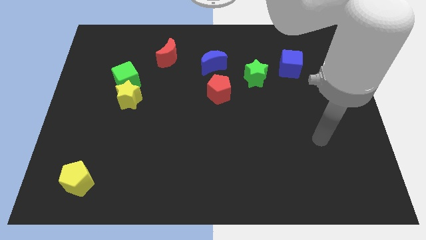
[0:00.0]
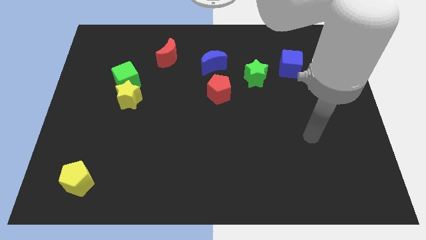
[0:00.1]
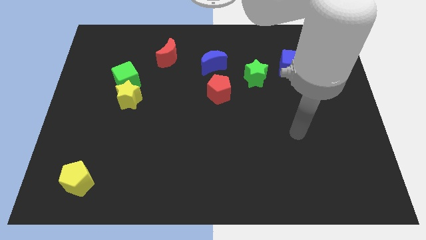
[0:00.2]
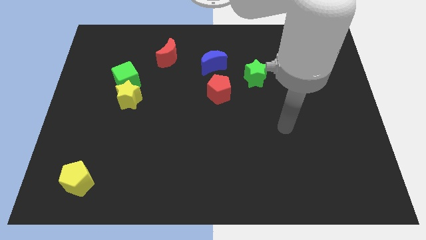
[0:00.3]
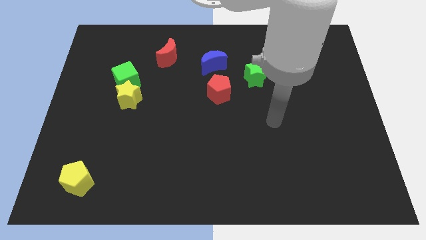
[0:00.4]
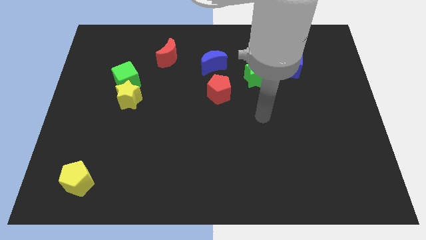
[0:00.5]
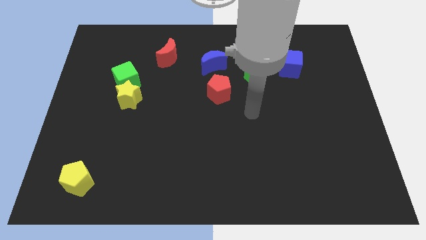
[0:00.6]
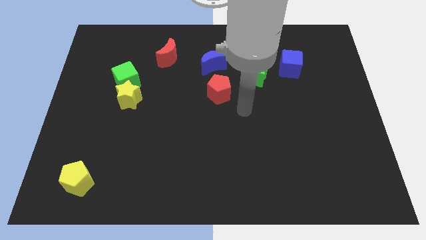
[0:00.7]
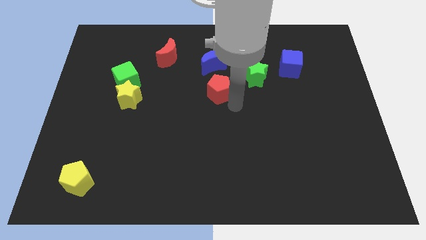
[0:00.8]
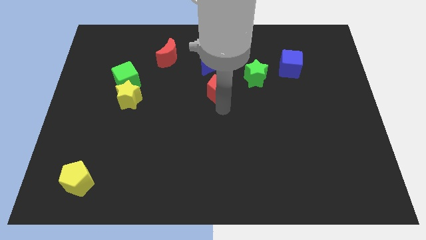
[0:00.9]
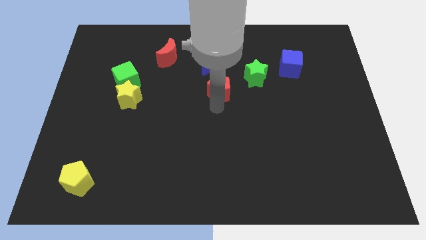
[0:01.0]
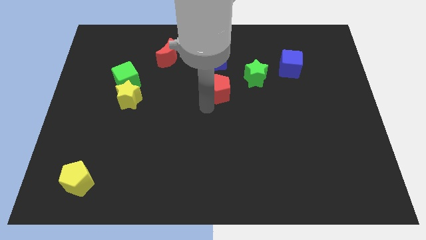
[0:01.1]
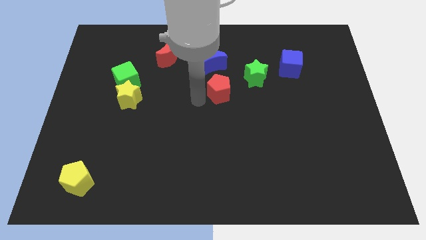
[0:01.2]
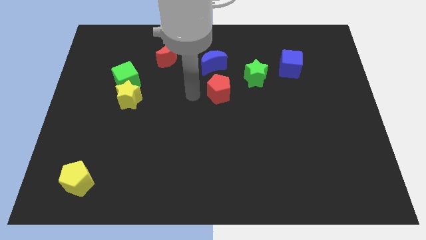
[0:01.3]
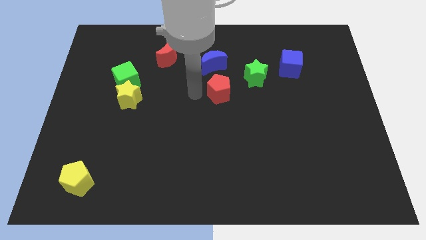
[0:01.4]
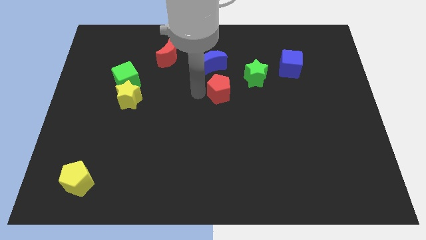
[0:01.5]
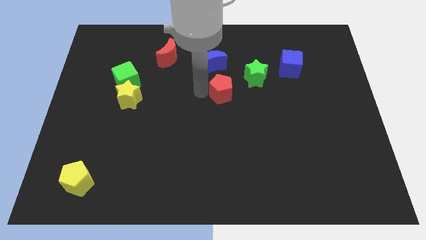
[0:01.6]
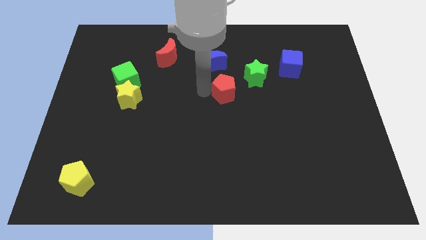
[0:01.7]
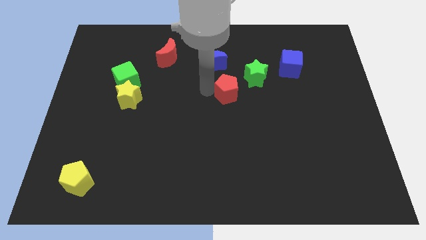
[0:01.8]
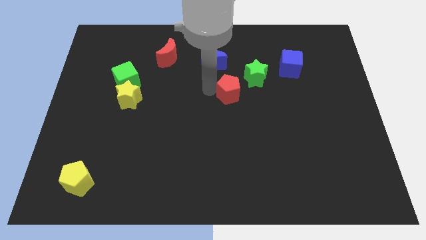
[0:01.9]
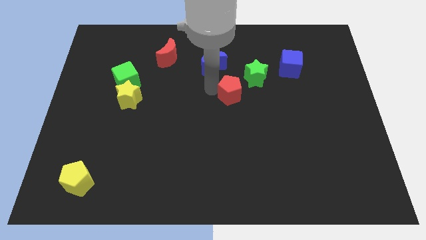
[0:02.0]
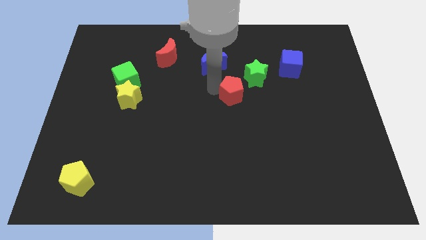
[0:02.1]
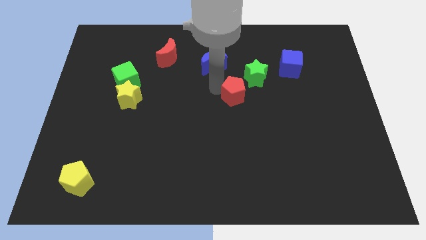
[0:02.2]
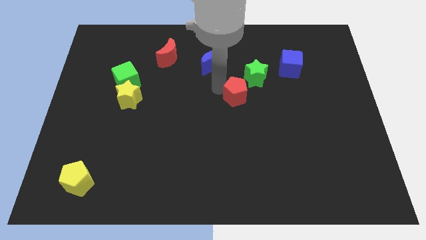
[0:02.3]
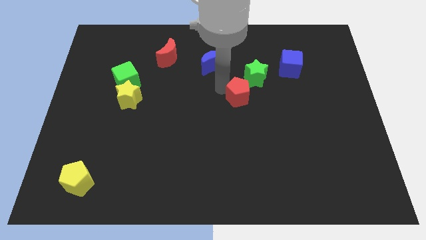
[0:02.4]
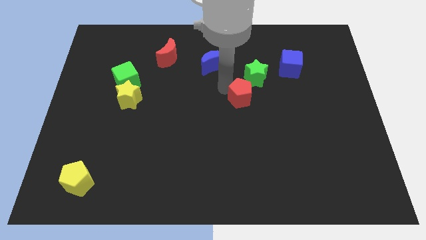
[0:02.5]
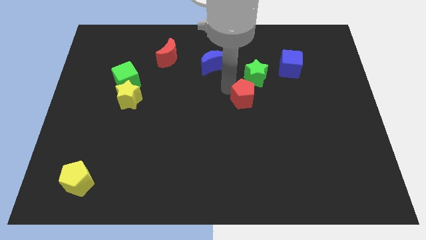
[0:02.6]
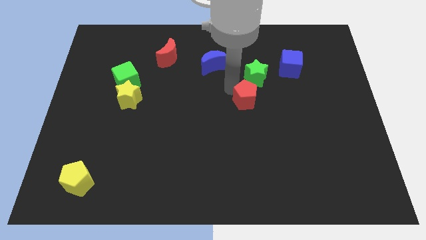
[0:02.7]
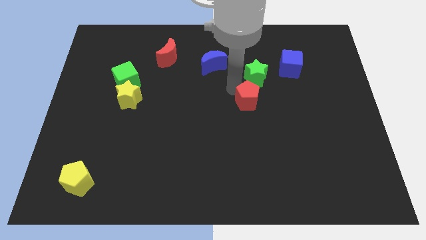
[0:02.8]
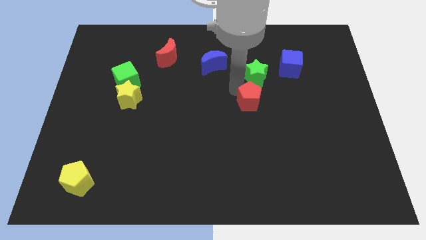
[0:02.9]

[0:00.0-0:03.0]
slightly slide the red pentagon to the right

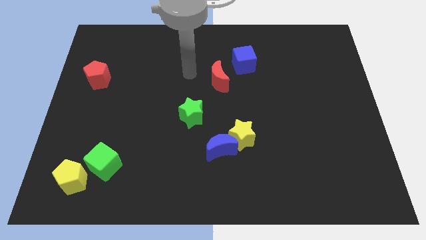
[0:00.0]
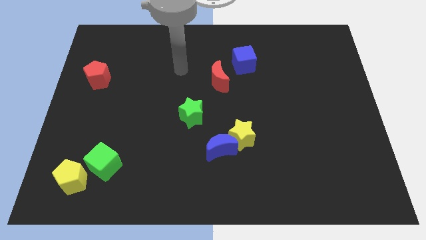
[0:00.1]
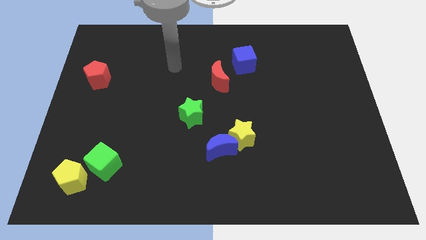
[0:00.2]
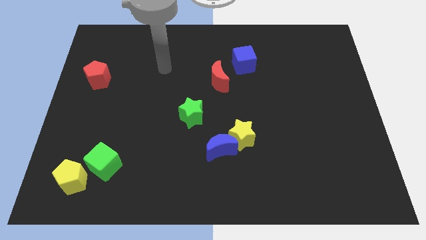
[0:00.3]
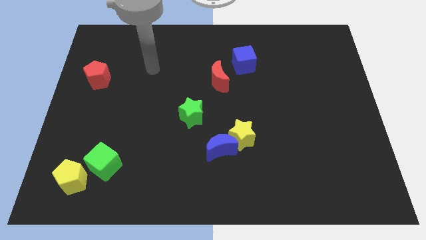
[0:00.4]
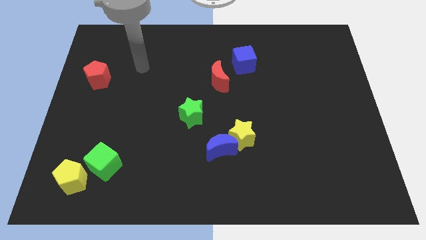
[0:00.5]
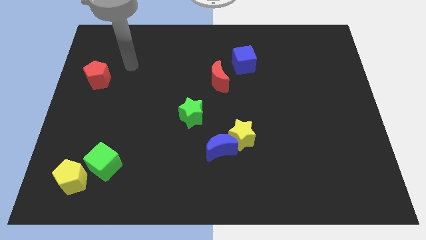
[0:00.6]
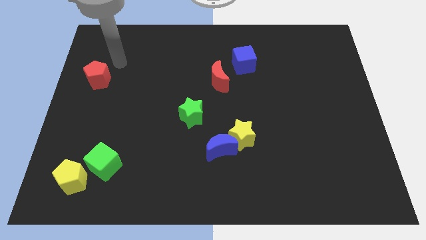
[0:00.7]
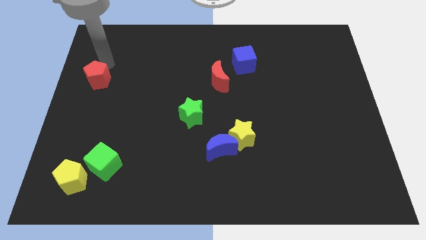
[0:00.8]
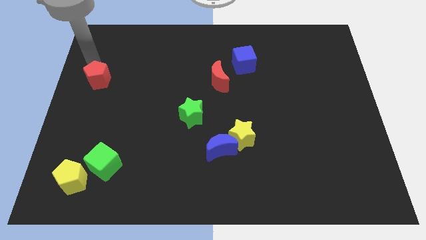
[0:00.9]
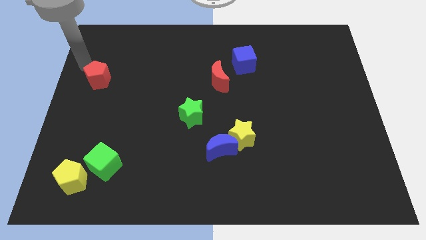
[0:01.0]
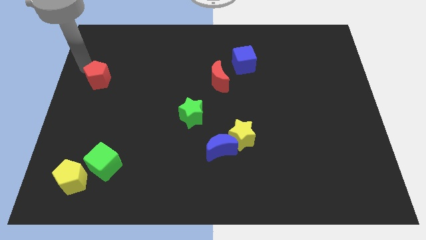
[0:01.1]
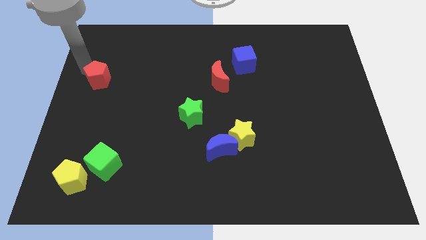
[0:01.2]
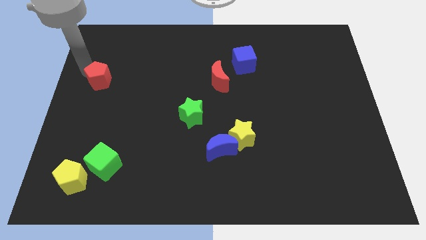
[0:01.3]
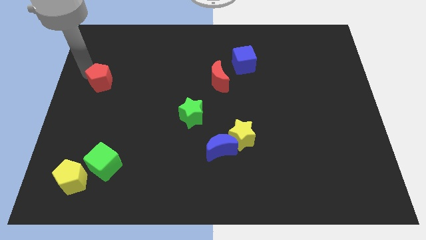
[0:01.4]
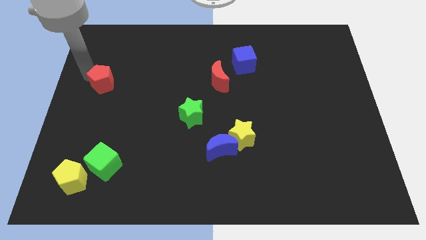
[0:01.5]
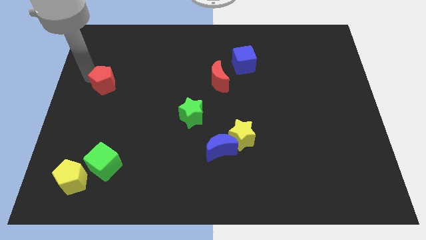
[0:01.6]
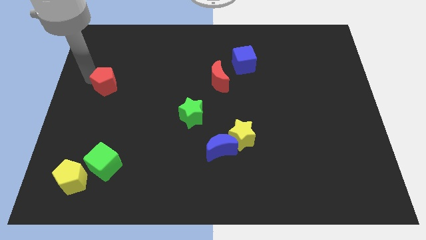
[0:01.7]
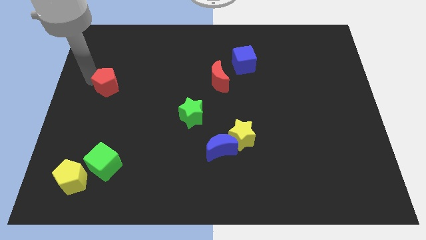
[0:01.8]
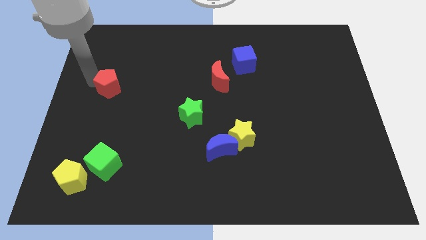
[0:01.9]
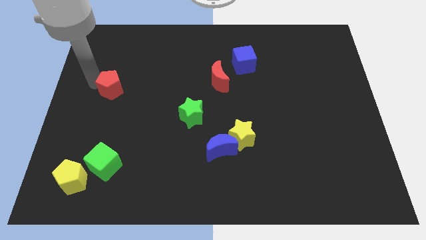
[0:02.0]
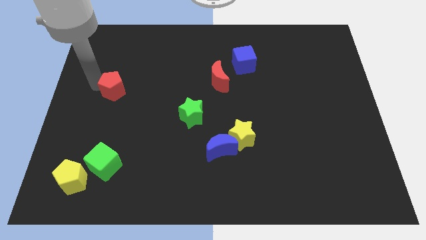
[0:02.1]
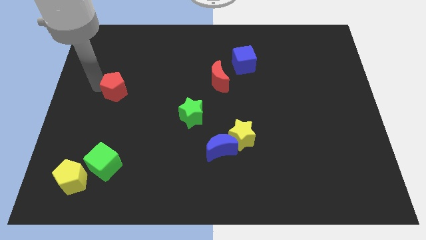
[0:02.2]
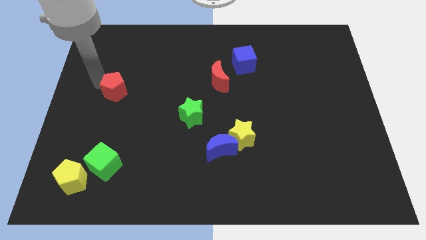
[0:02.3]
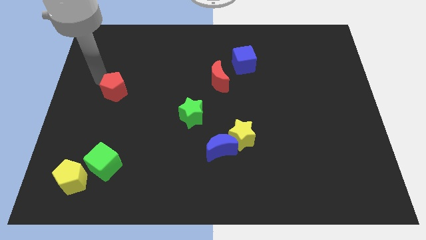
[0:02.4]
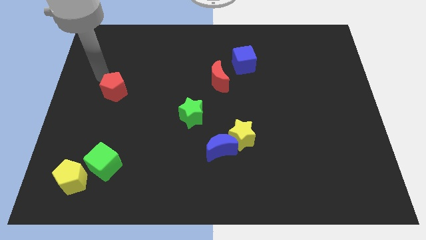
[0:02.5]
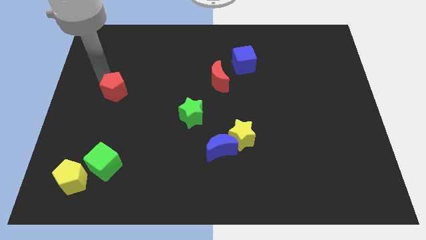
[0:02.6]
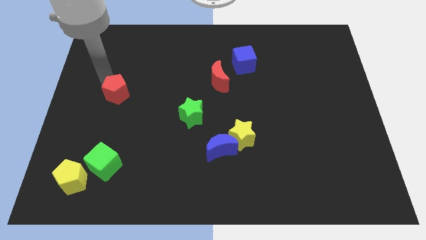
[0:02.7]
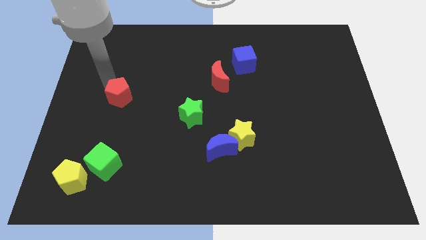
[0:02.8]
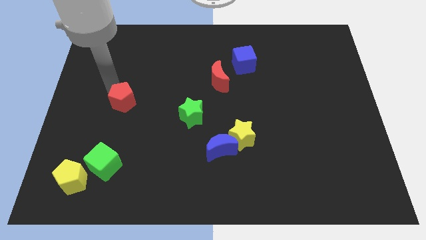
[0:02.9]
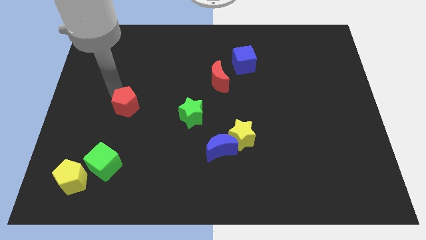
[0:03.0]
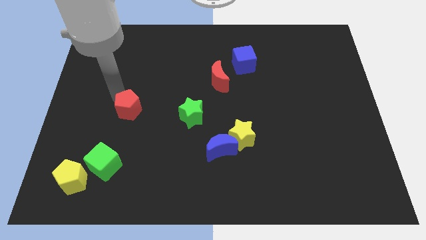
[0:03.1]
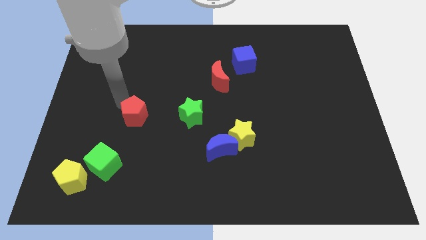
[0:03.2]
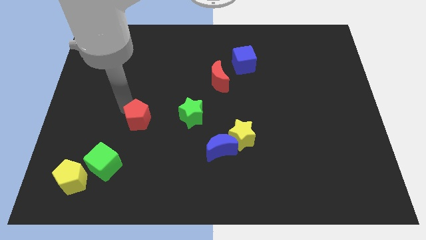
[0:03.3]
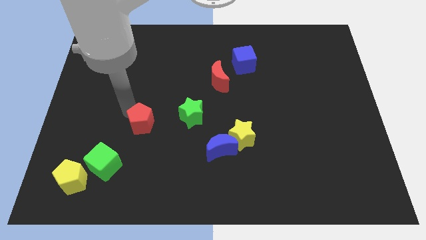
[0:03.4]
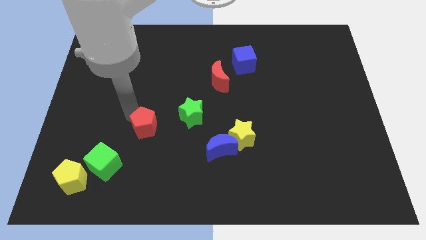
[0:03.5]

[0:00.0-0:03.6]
move the red pentagon down and right diagonally

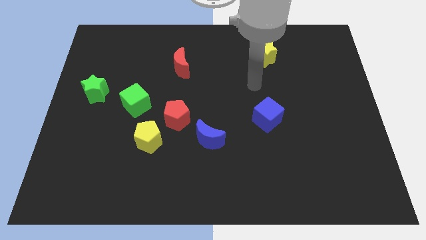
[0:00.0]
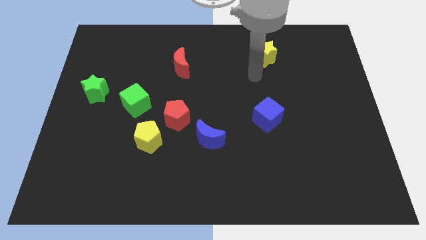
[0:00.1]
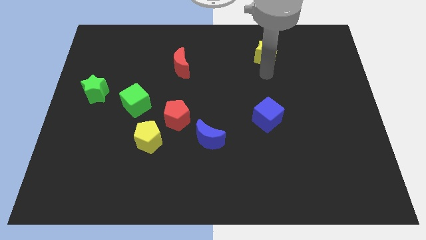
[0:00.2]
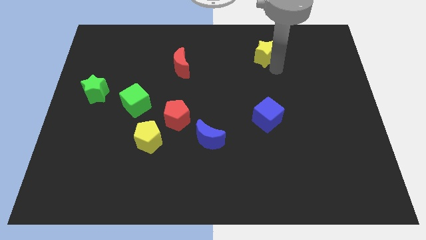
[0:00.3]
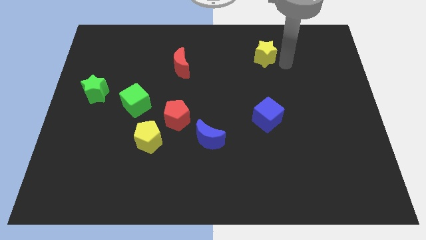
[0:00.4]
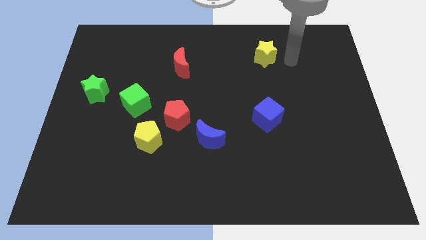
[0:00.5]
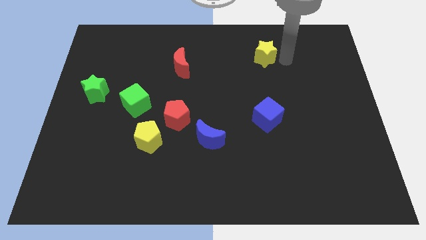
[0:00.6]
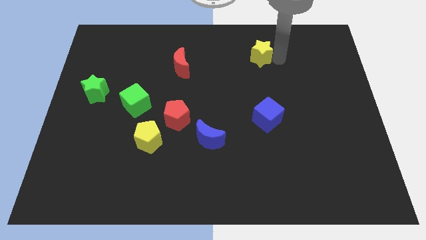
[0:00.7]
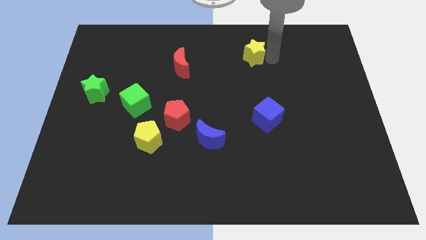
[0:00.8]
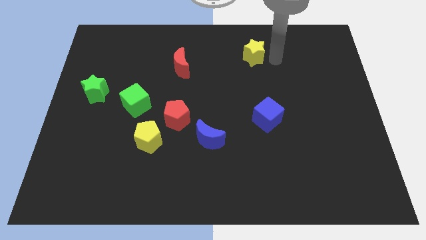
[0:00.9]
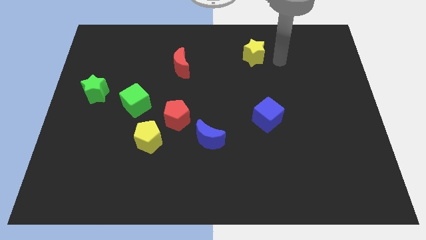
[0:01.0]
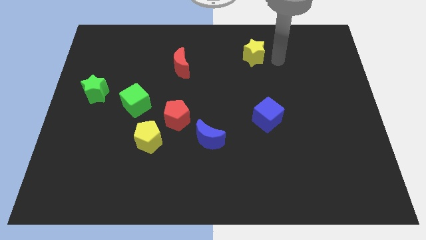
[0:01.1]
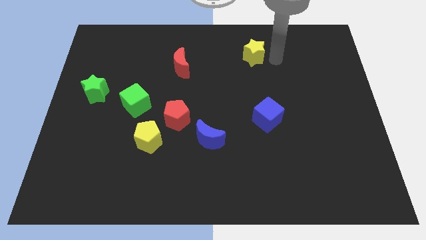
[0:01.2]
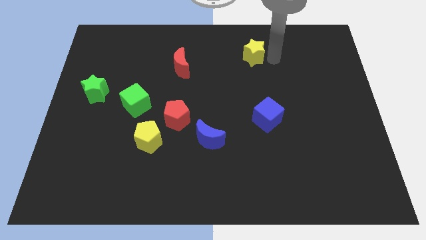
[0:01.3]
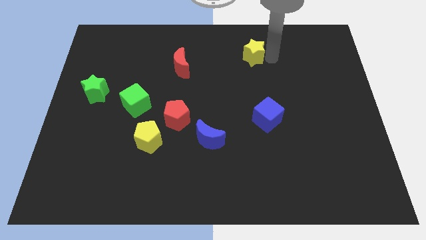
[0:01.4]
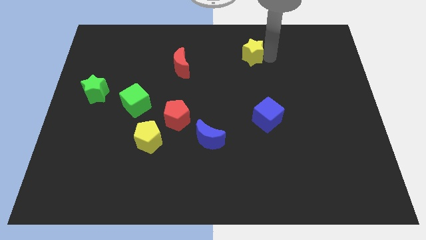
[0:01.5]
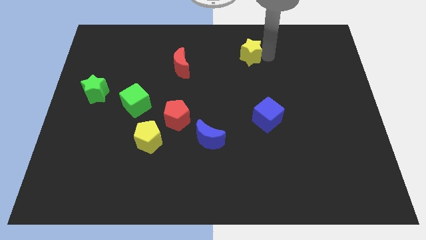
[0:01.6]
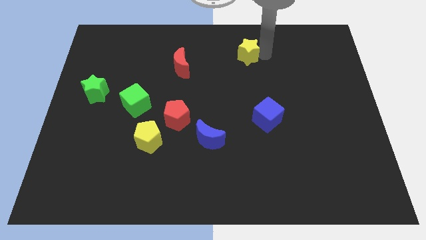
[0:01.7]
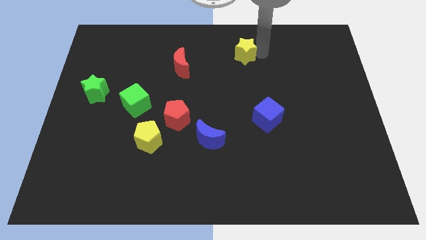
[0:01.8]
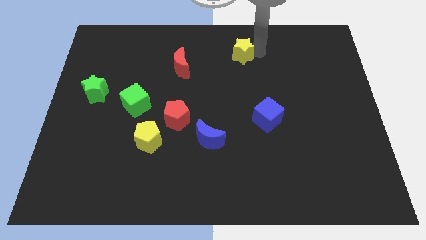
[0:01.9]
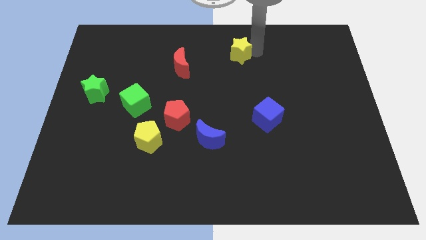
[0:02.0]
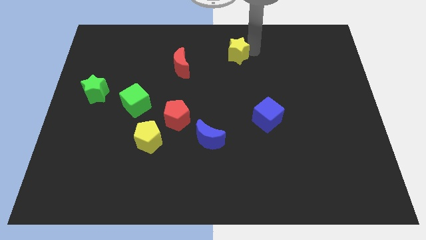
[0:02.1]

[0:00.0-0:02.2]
slide the yellow star slightly to the left
